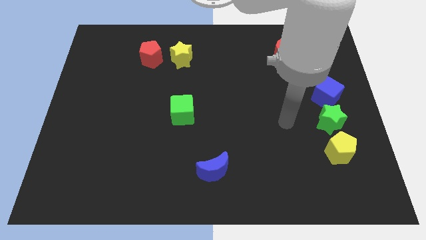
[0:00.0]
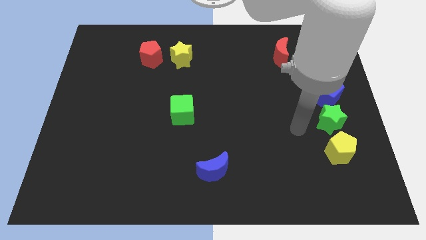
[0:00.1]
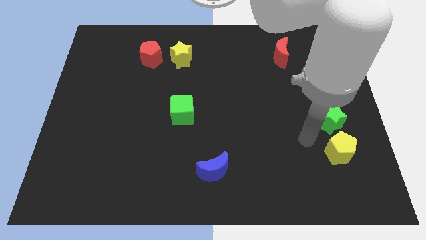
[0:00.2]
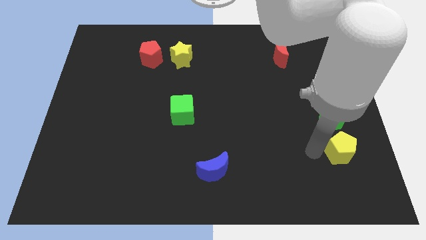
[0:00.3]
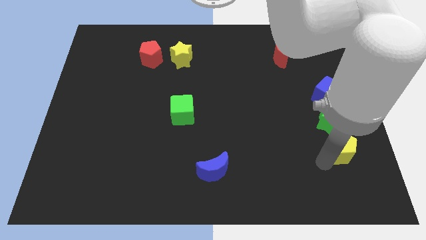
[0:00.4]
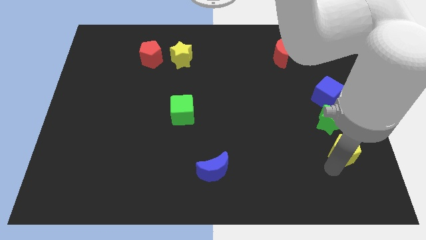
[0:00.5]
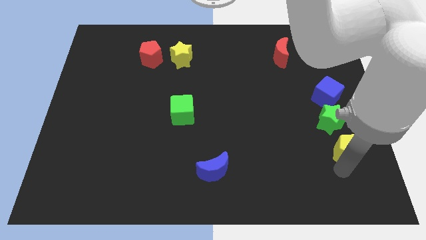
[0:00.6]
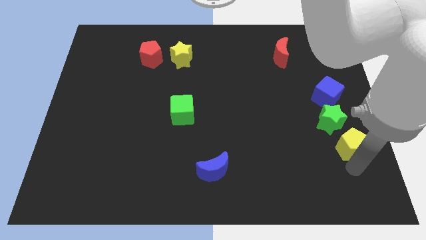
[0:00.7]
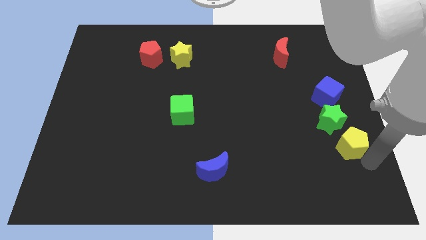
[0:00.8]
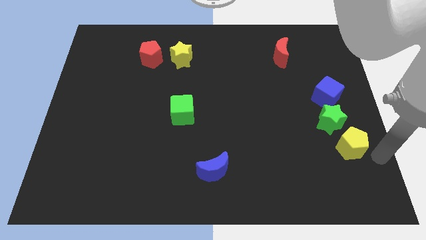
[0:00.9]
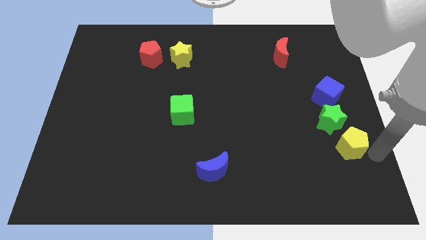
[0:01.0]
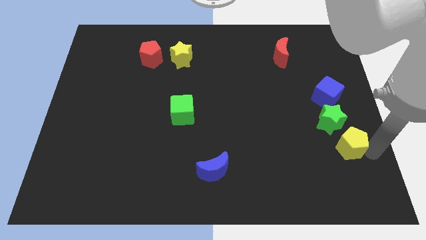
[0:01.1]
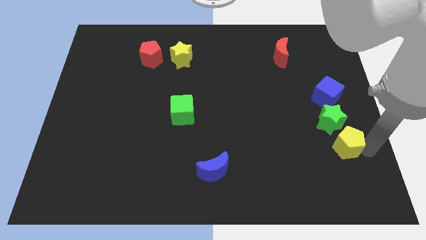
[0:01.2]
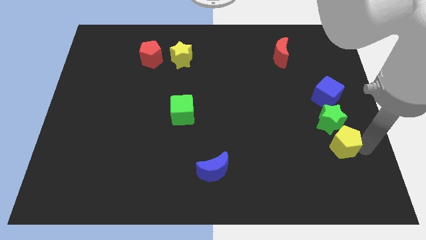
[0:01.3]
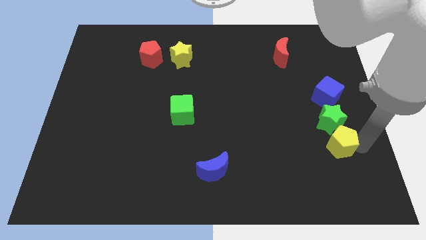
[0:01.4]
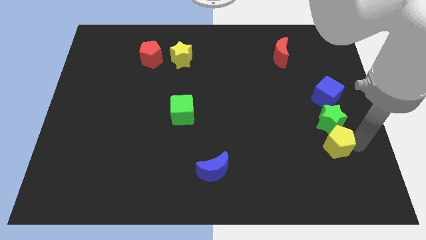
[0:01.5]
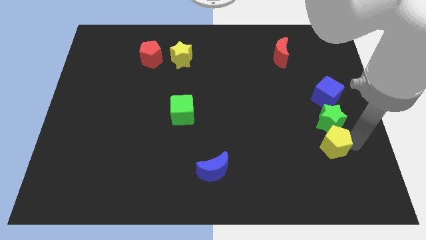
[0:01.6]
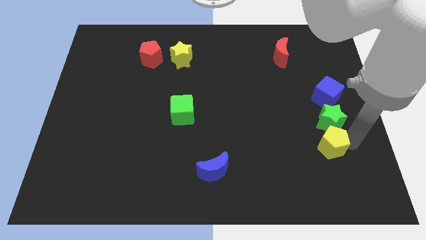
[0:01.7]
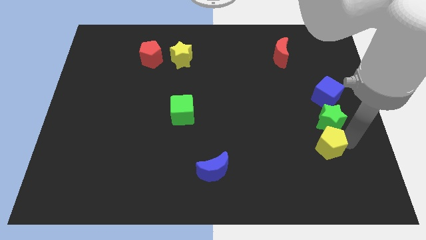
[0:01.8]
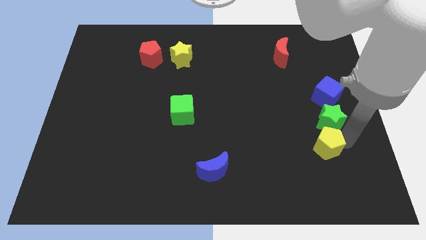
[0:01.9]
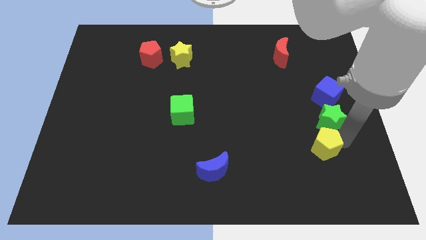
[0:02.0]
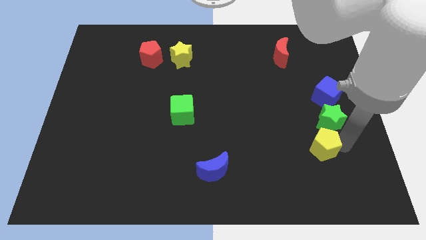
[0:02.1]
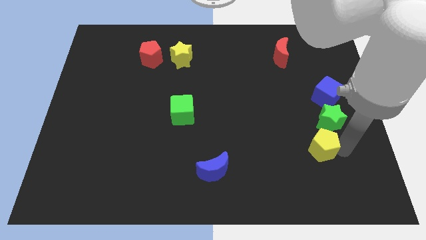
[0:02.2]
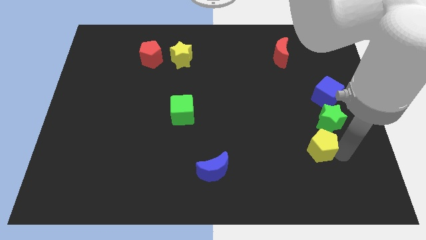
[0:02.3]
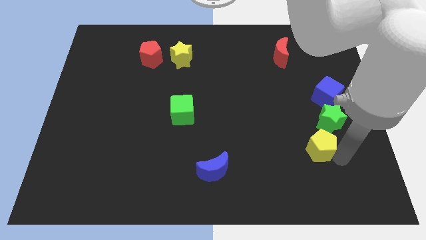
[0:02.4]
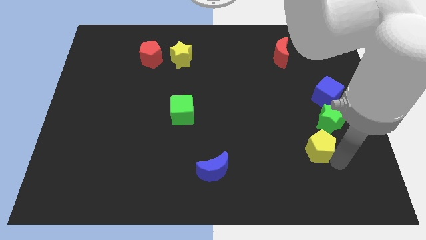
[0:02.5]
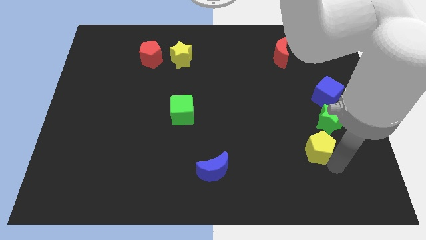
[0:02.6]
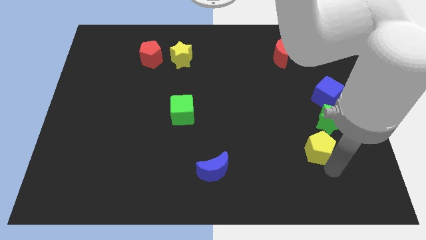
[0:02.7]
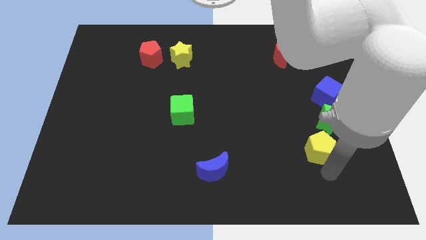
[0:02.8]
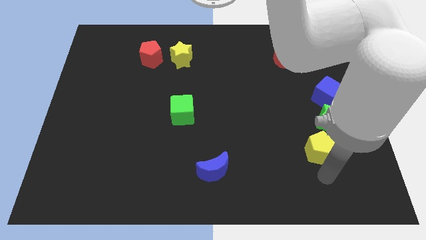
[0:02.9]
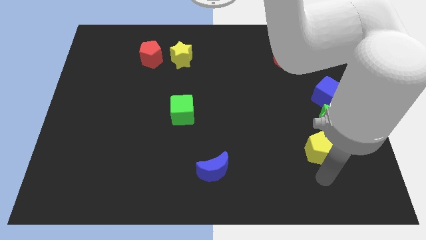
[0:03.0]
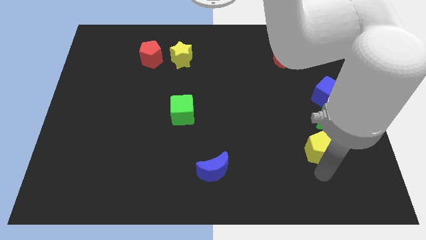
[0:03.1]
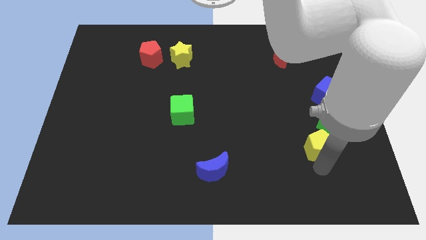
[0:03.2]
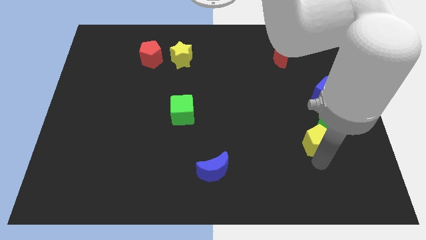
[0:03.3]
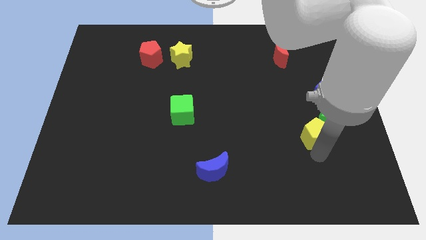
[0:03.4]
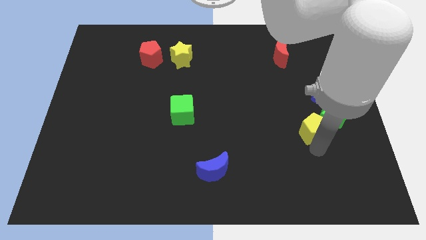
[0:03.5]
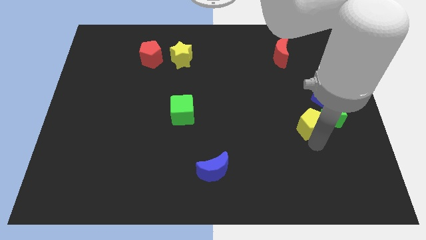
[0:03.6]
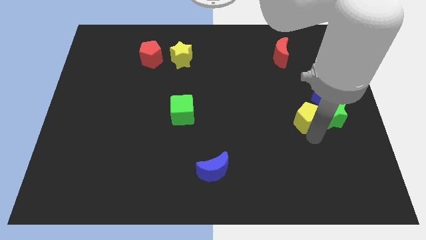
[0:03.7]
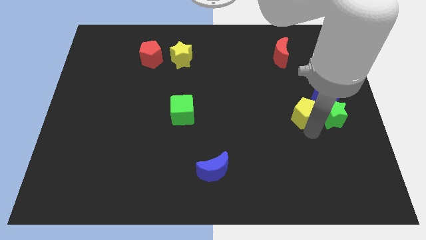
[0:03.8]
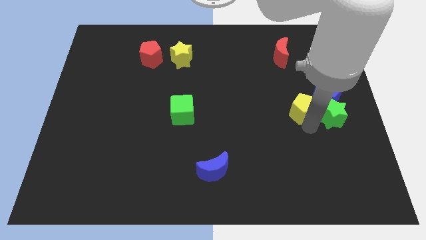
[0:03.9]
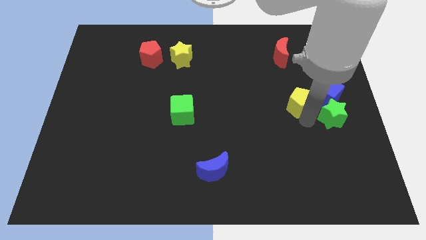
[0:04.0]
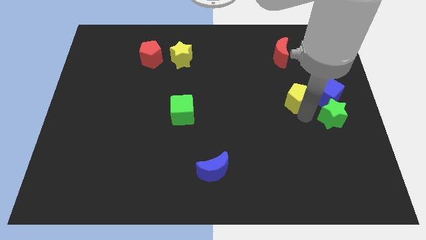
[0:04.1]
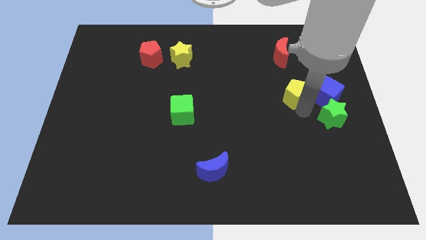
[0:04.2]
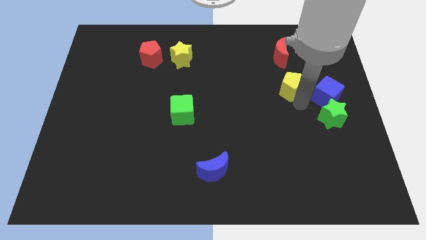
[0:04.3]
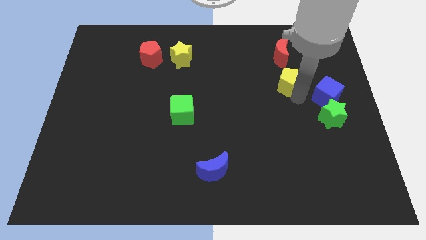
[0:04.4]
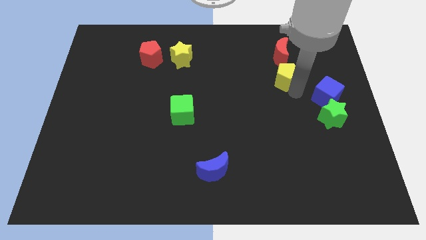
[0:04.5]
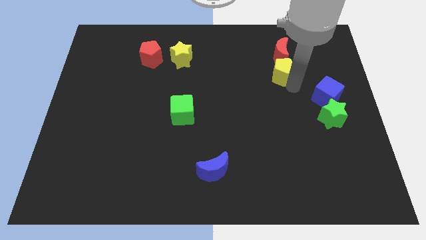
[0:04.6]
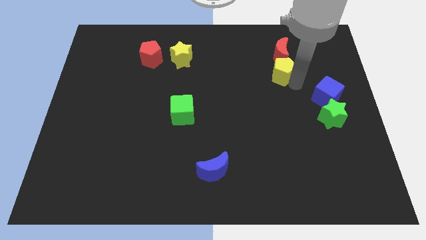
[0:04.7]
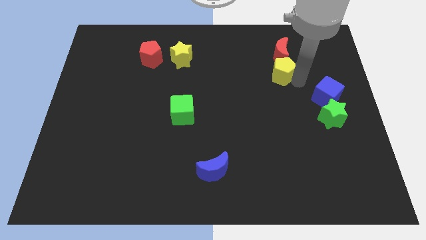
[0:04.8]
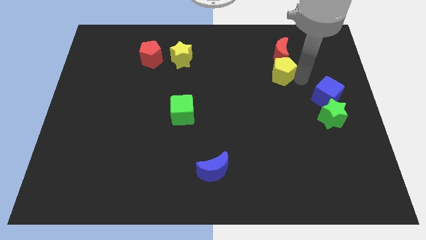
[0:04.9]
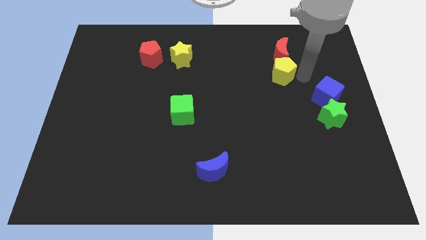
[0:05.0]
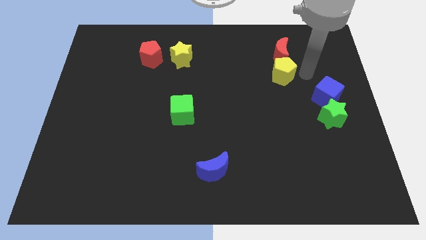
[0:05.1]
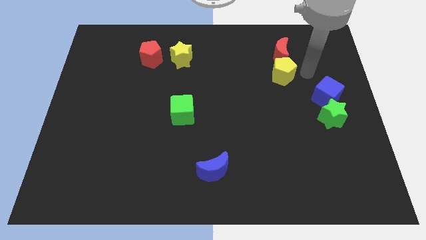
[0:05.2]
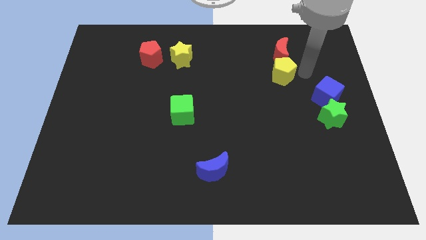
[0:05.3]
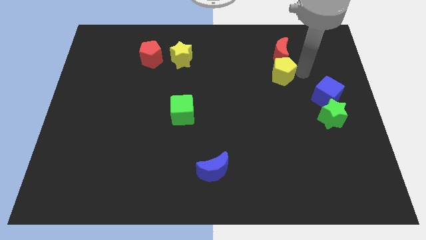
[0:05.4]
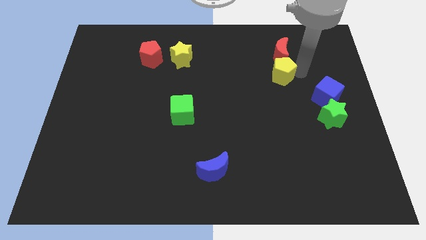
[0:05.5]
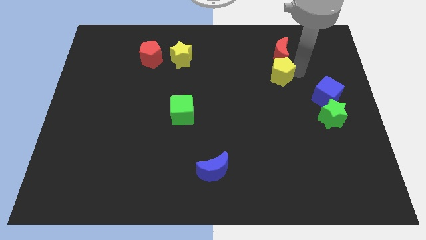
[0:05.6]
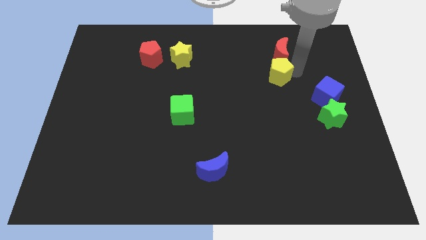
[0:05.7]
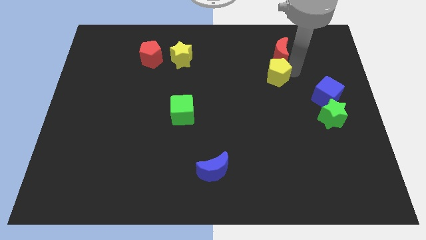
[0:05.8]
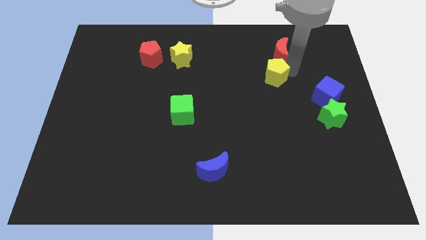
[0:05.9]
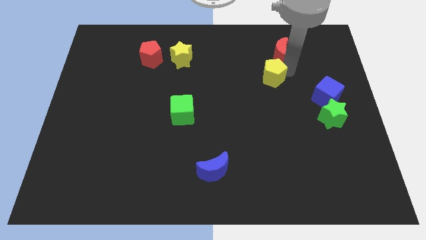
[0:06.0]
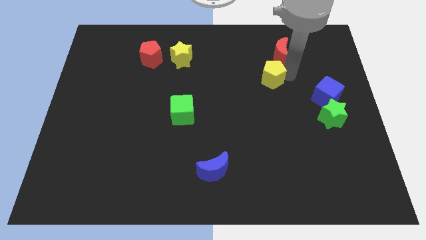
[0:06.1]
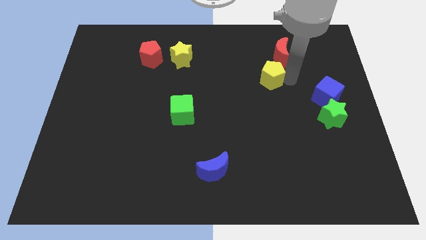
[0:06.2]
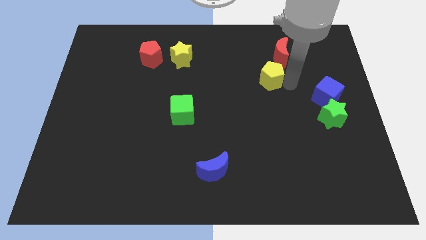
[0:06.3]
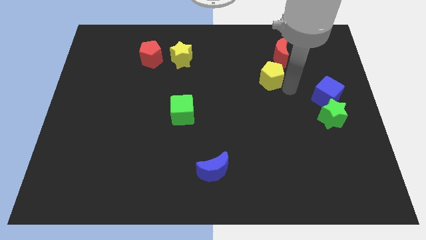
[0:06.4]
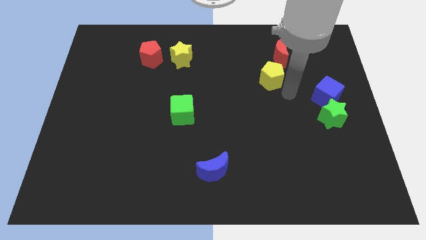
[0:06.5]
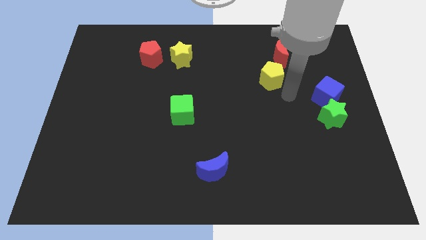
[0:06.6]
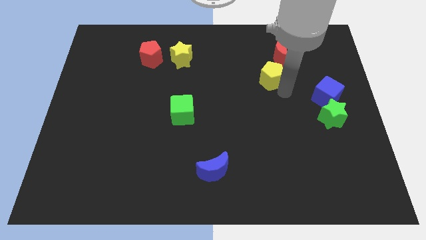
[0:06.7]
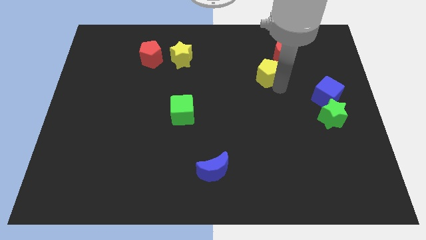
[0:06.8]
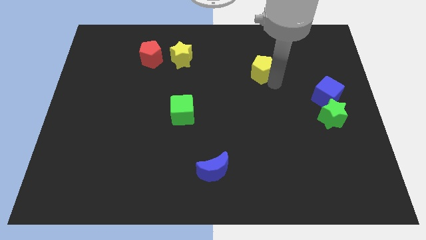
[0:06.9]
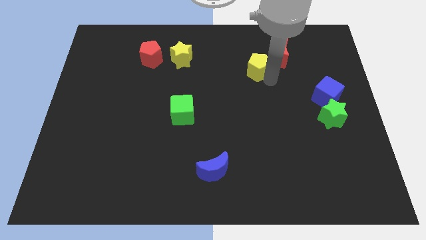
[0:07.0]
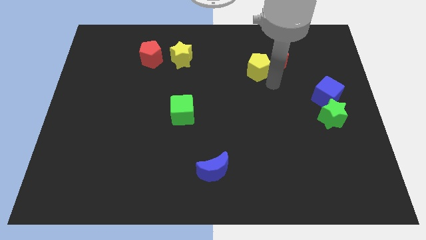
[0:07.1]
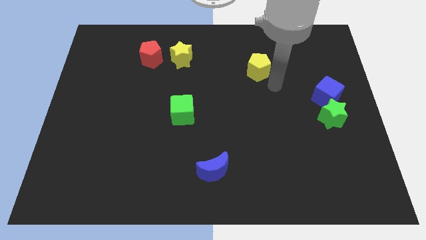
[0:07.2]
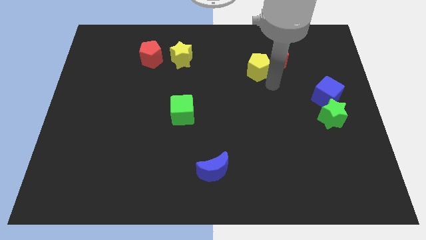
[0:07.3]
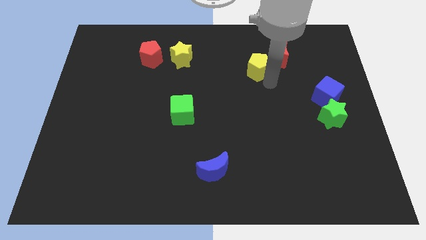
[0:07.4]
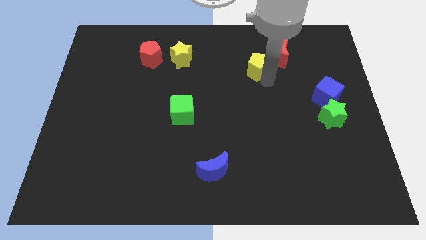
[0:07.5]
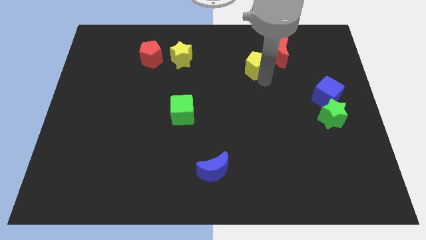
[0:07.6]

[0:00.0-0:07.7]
put the yellow pentagon left of the red moon
